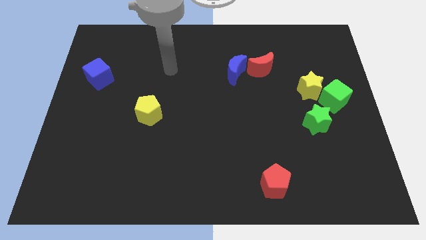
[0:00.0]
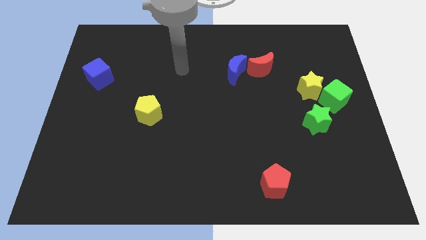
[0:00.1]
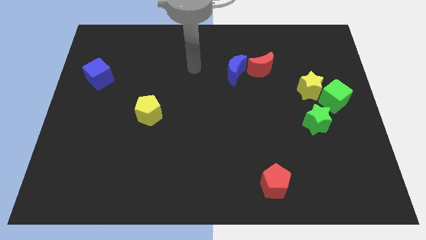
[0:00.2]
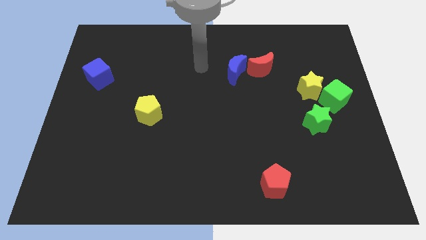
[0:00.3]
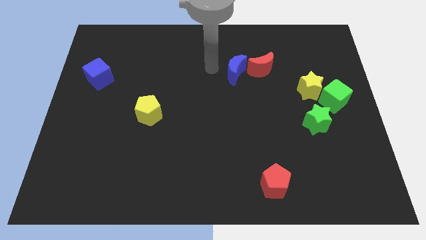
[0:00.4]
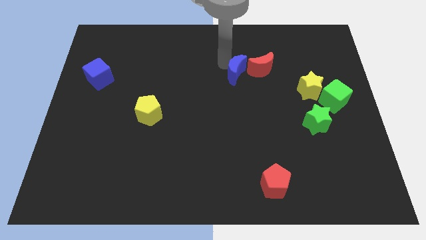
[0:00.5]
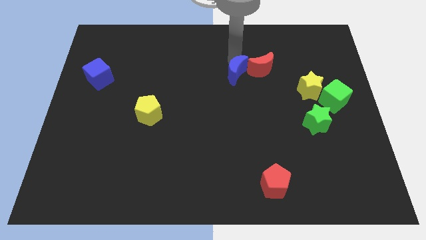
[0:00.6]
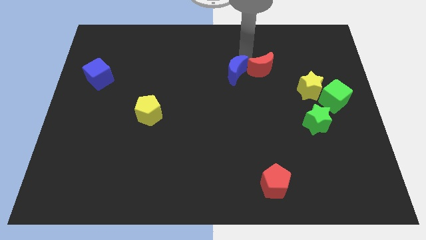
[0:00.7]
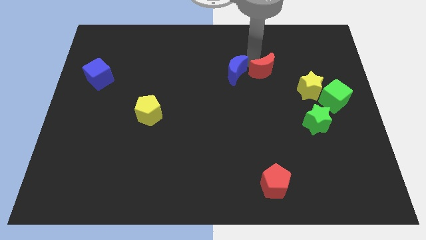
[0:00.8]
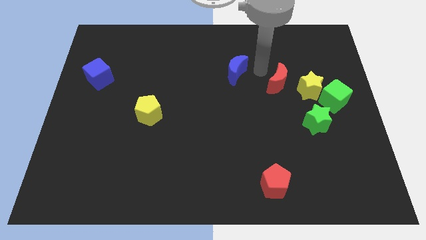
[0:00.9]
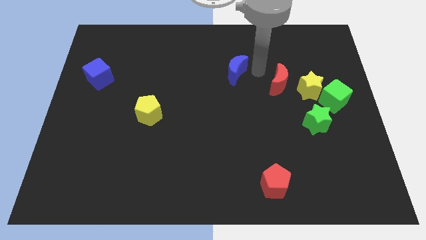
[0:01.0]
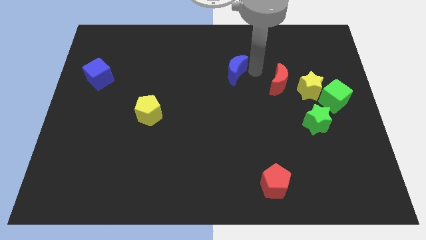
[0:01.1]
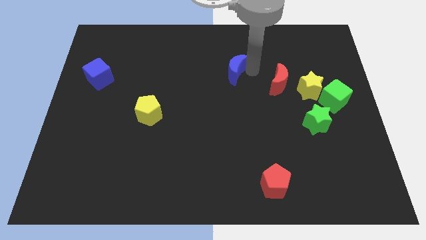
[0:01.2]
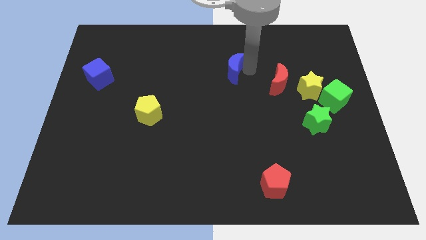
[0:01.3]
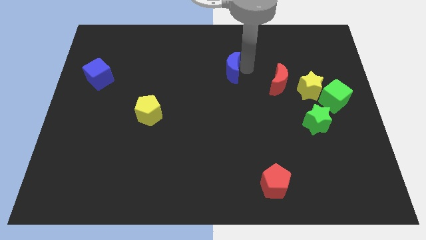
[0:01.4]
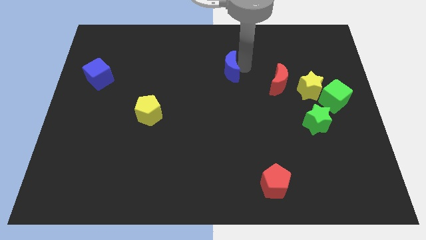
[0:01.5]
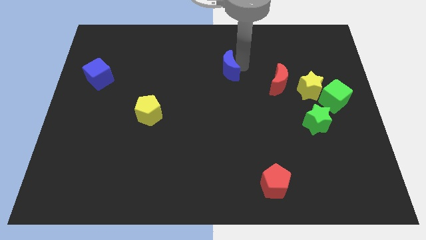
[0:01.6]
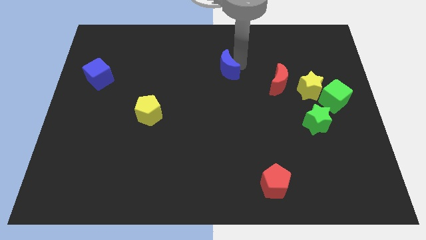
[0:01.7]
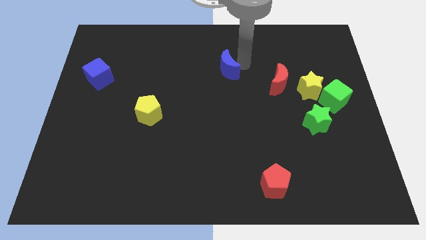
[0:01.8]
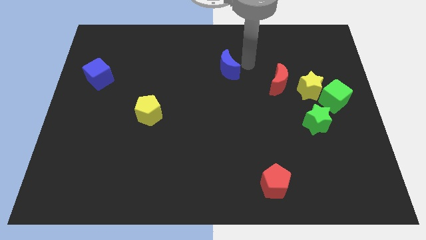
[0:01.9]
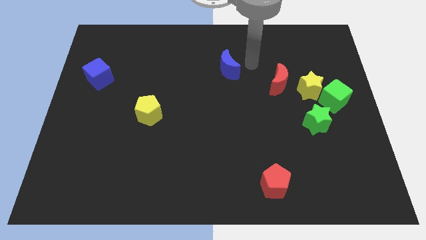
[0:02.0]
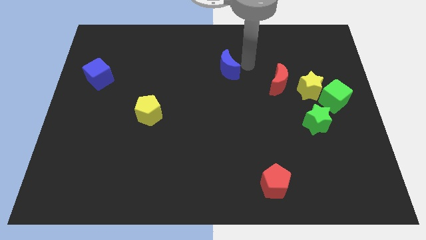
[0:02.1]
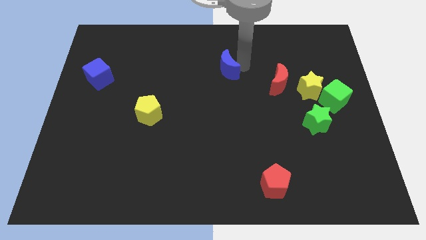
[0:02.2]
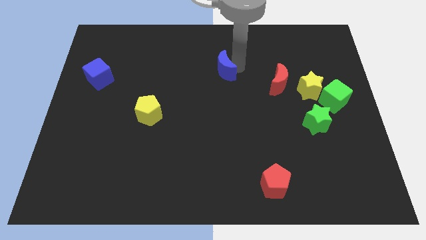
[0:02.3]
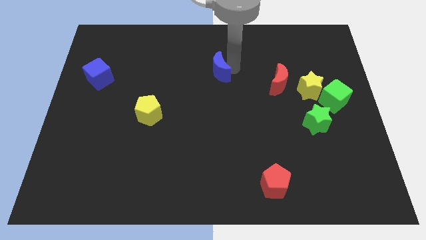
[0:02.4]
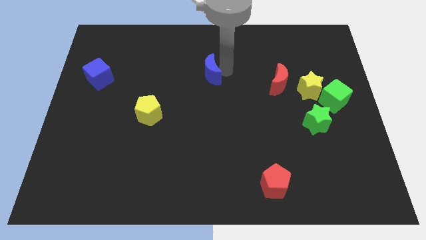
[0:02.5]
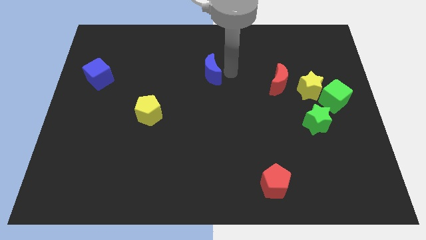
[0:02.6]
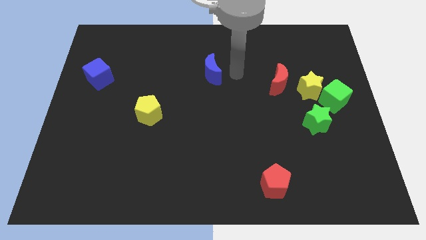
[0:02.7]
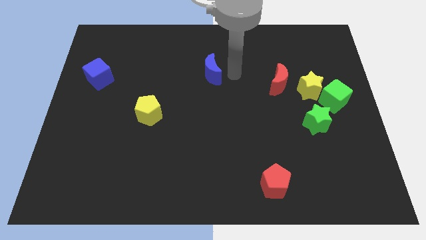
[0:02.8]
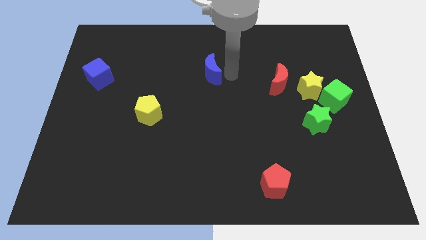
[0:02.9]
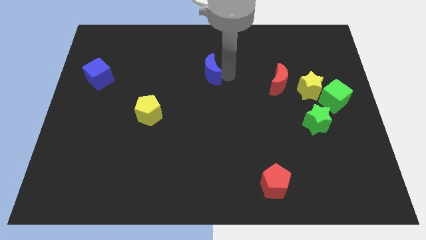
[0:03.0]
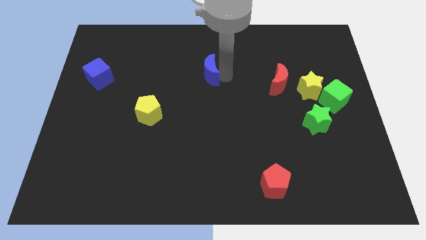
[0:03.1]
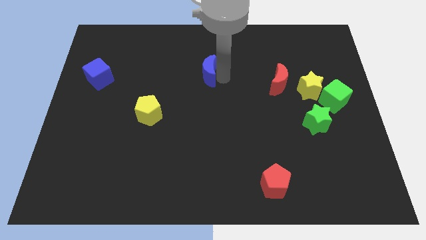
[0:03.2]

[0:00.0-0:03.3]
slightly slide the blue moon left

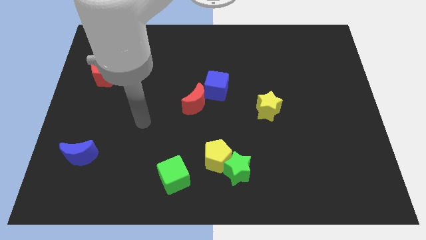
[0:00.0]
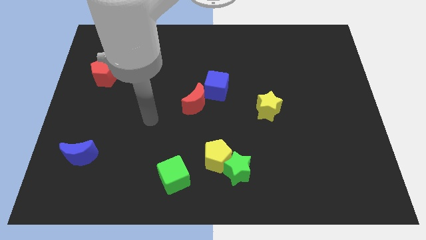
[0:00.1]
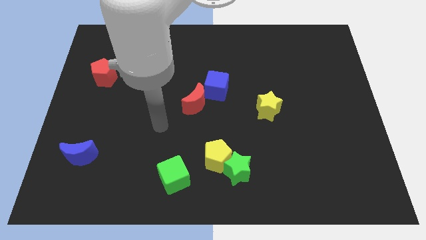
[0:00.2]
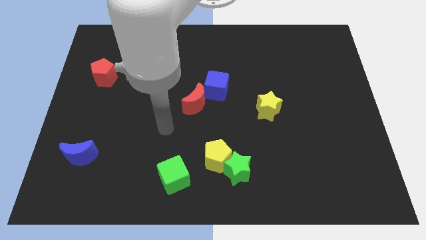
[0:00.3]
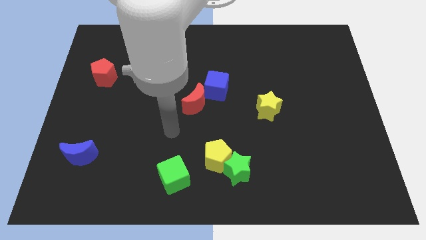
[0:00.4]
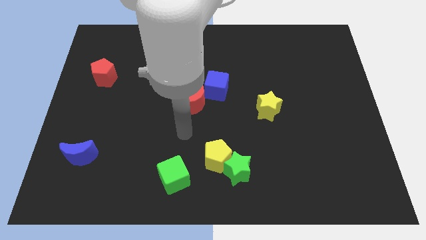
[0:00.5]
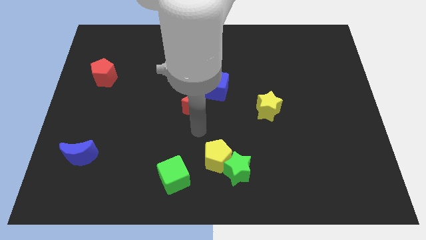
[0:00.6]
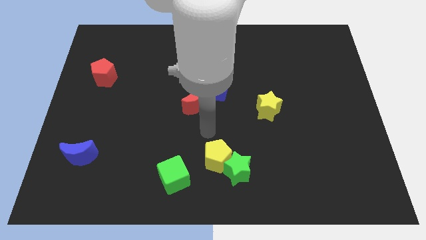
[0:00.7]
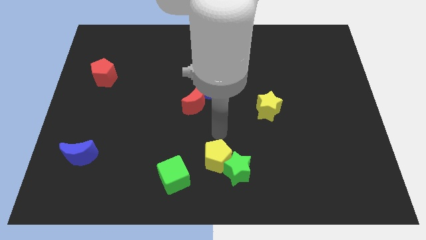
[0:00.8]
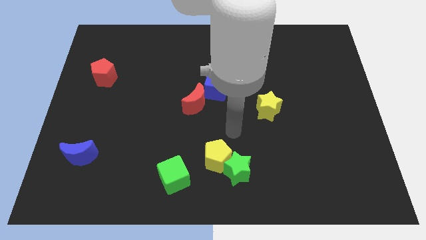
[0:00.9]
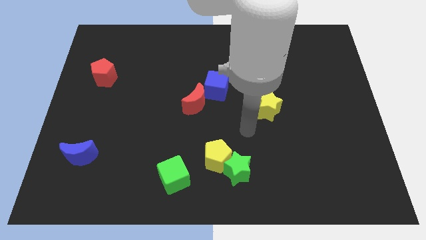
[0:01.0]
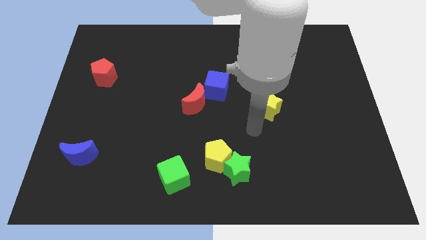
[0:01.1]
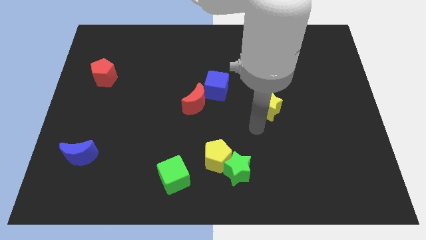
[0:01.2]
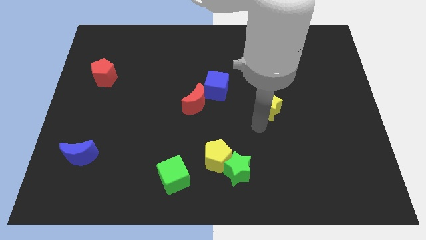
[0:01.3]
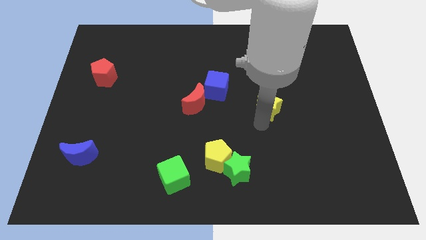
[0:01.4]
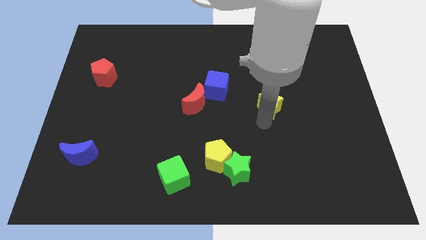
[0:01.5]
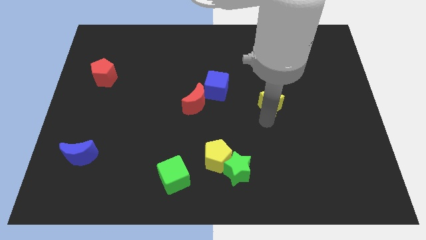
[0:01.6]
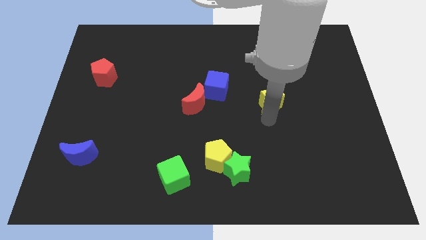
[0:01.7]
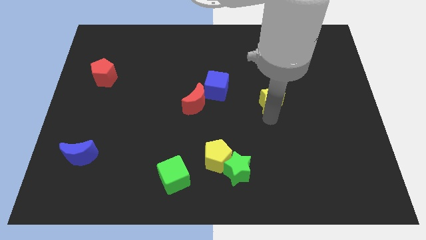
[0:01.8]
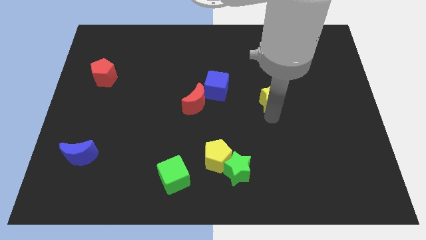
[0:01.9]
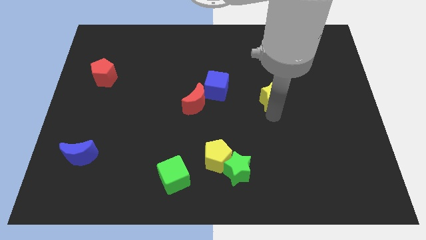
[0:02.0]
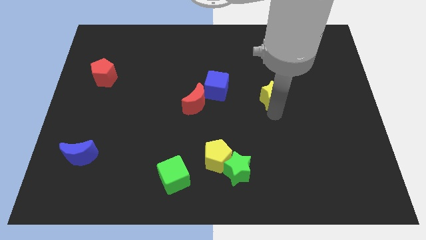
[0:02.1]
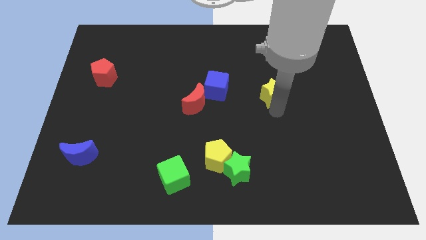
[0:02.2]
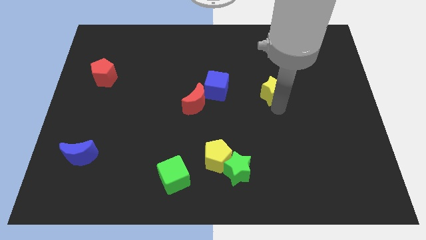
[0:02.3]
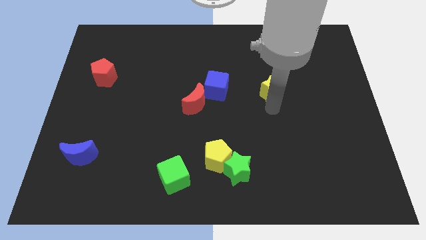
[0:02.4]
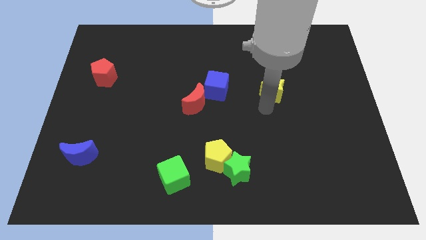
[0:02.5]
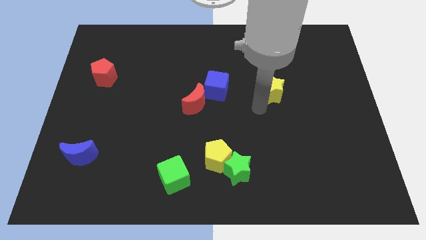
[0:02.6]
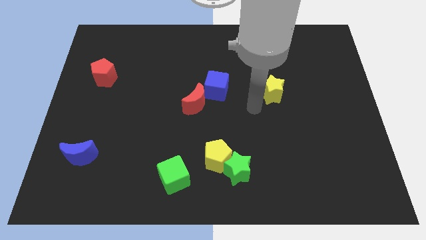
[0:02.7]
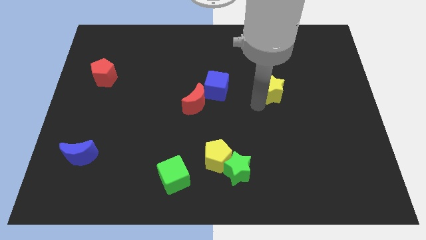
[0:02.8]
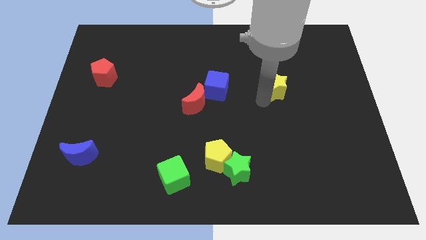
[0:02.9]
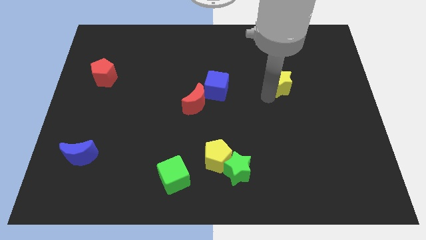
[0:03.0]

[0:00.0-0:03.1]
slide the yellow star diagonally up and right a little bit

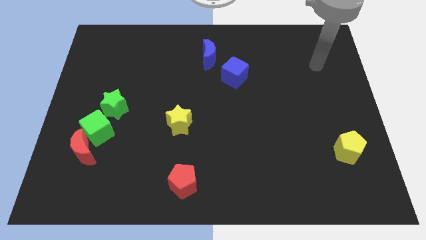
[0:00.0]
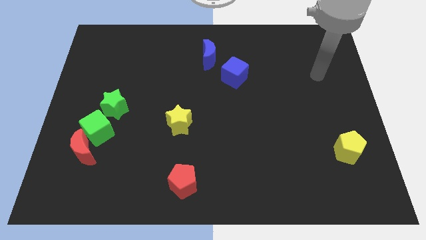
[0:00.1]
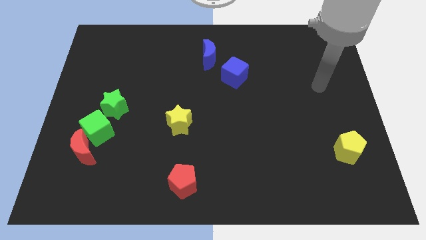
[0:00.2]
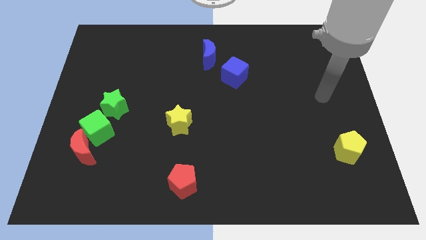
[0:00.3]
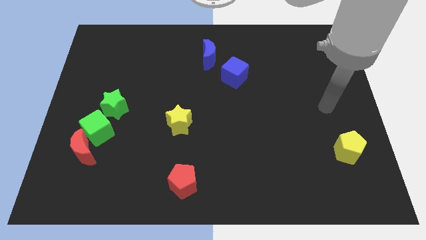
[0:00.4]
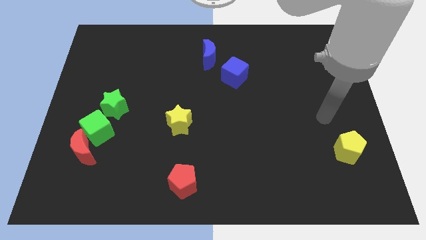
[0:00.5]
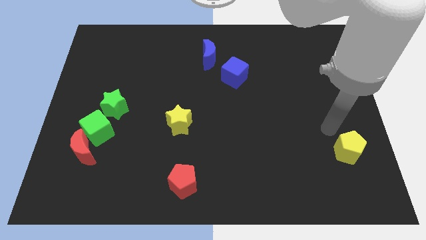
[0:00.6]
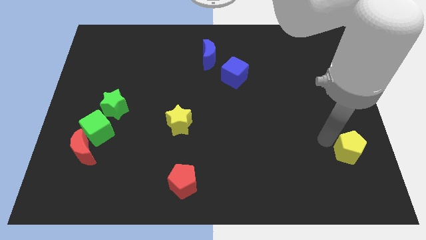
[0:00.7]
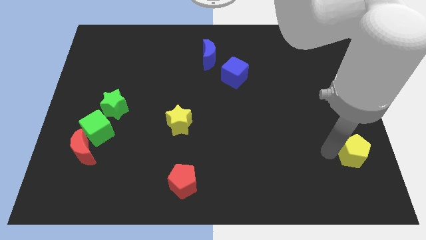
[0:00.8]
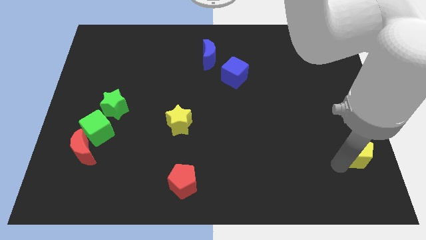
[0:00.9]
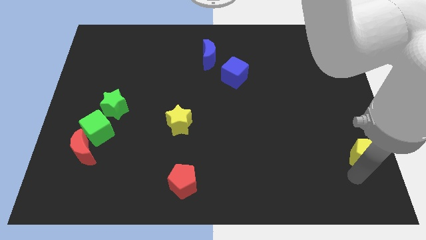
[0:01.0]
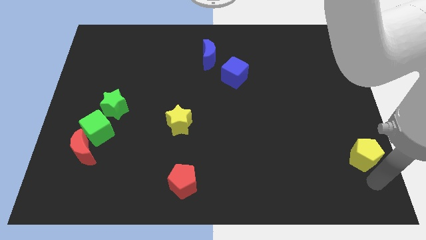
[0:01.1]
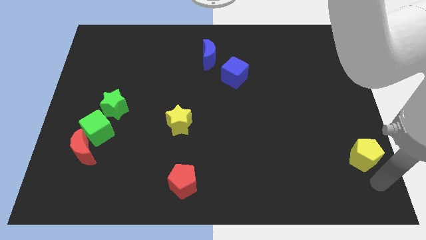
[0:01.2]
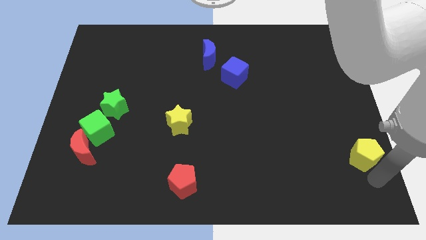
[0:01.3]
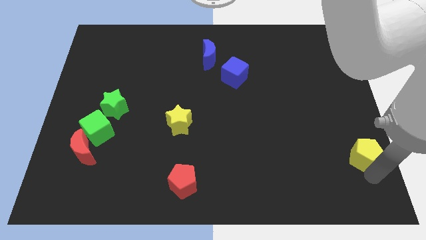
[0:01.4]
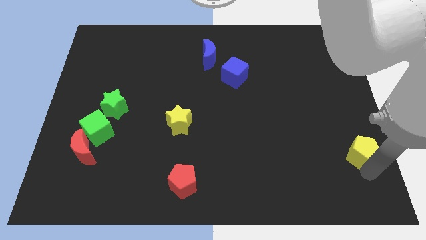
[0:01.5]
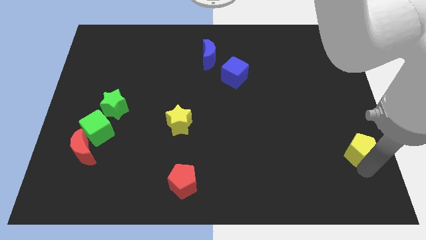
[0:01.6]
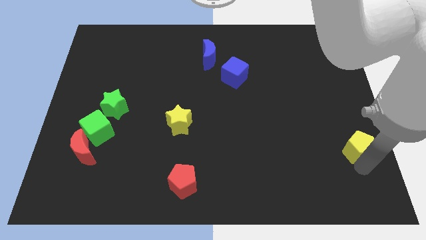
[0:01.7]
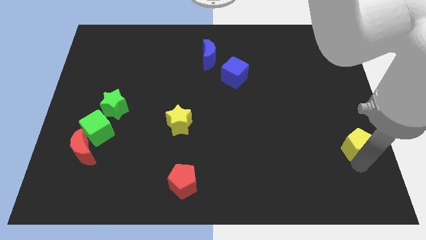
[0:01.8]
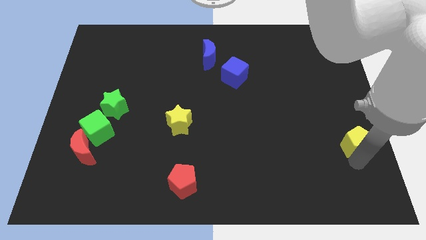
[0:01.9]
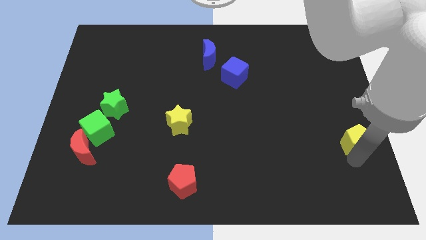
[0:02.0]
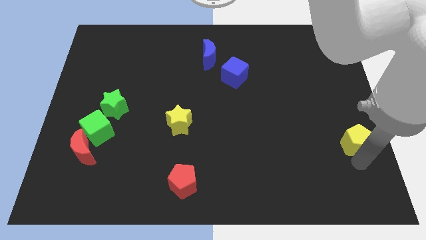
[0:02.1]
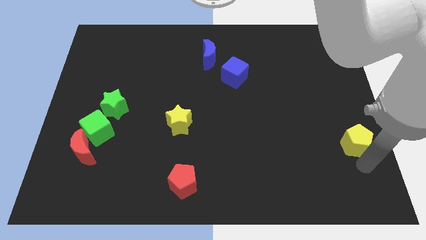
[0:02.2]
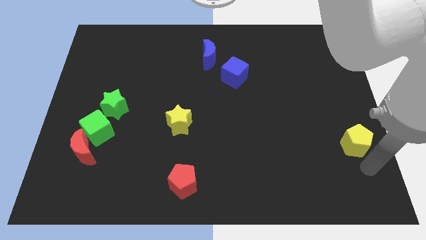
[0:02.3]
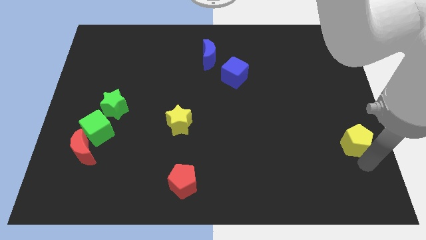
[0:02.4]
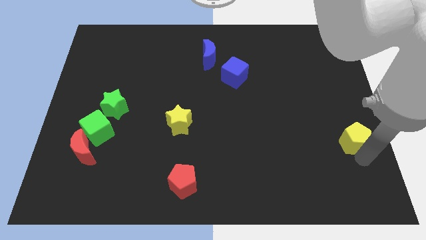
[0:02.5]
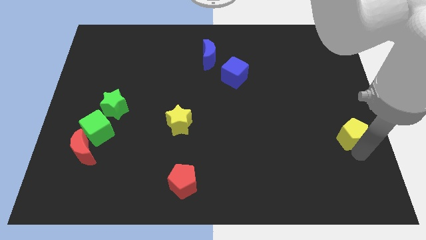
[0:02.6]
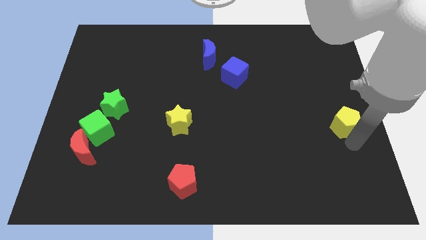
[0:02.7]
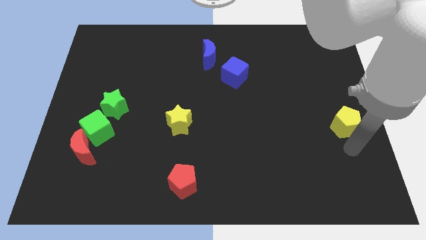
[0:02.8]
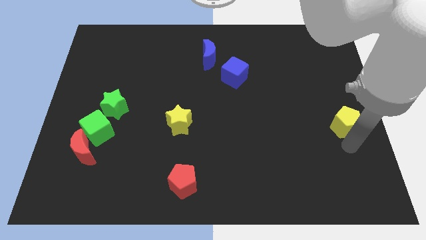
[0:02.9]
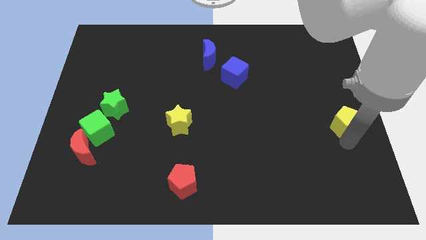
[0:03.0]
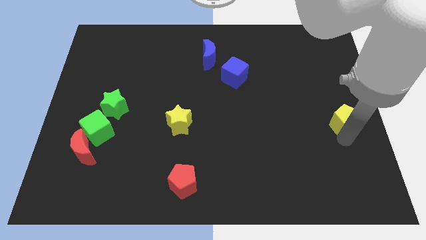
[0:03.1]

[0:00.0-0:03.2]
push the yellow pentagon upwards somewhat
